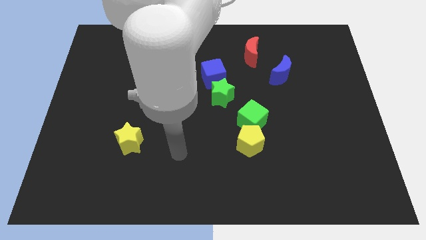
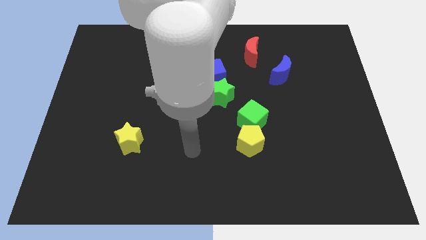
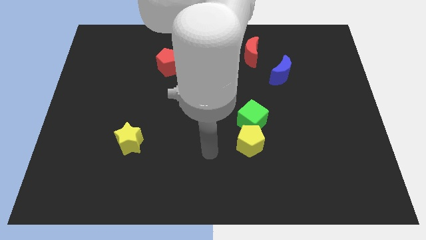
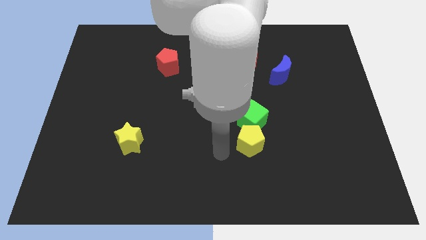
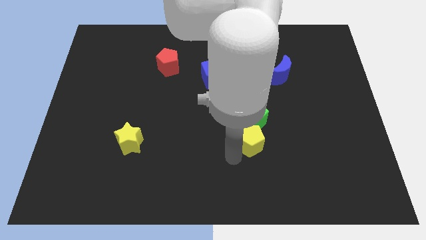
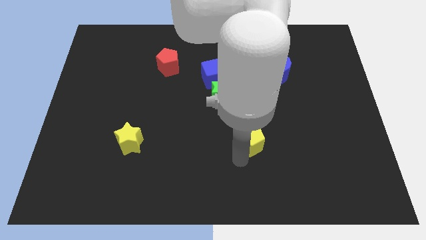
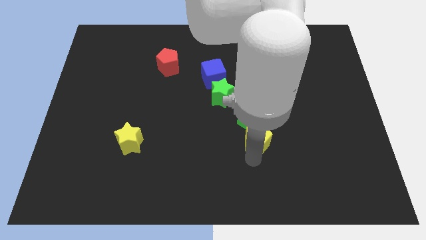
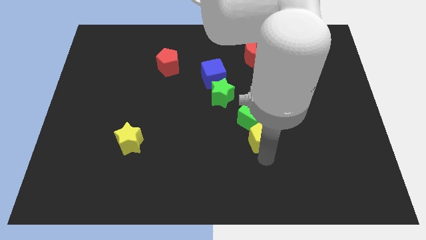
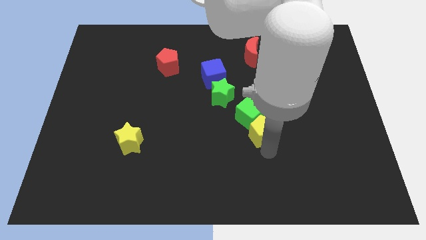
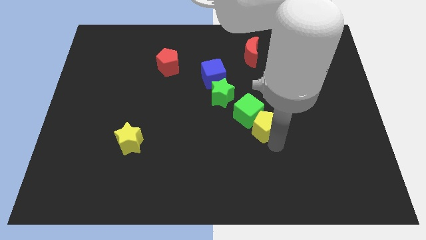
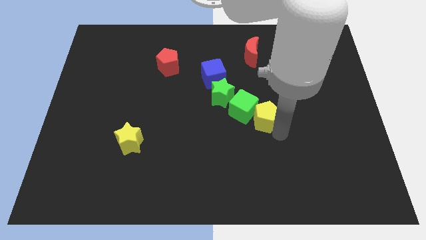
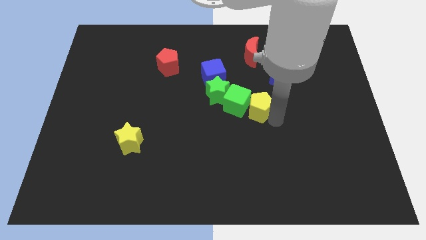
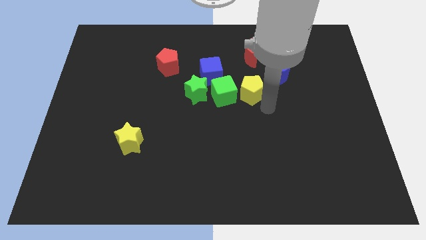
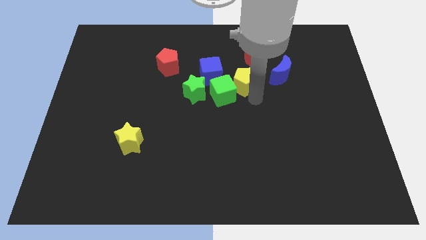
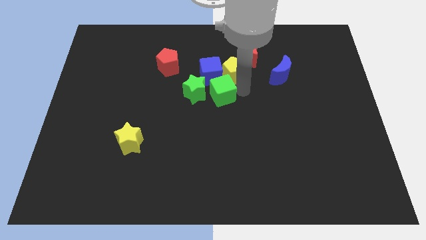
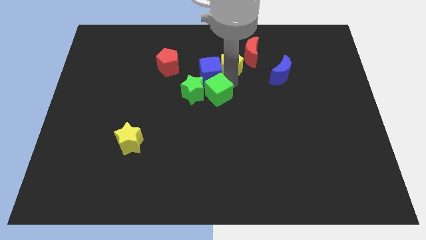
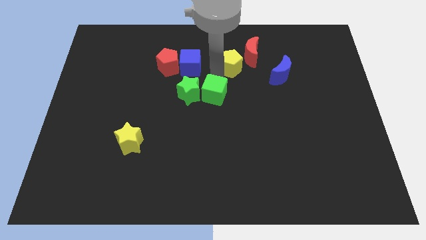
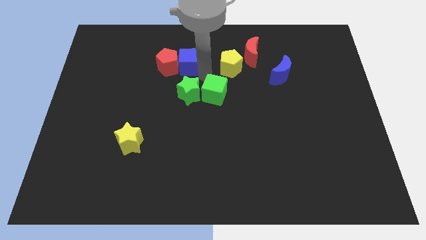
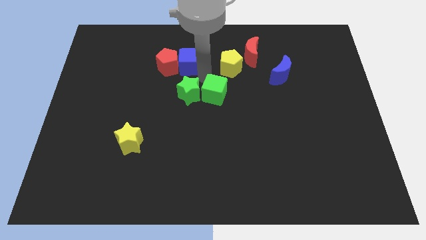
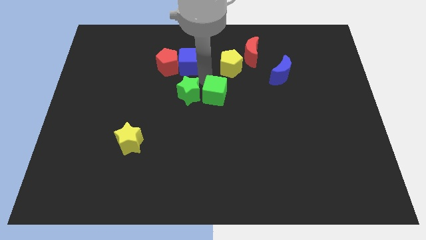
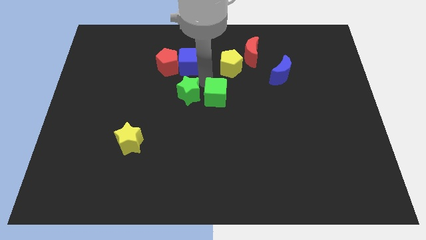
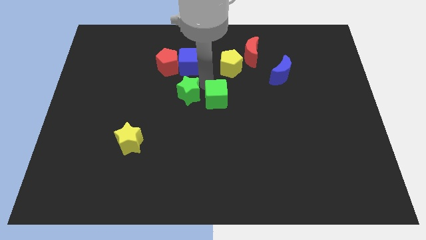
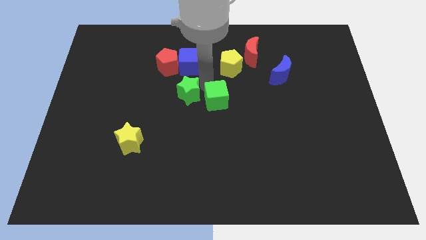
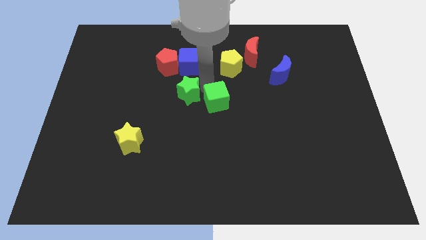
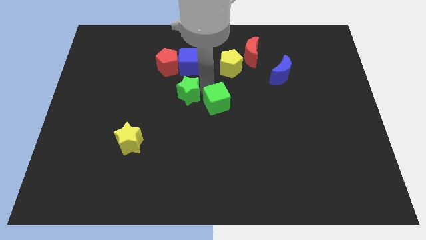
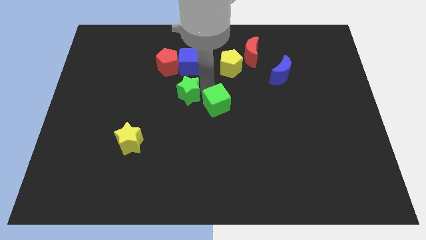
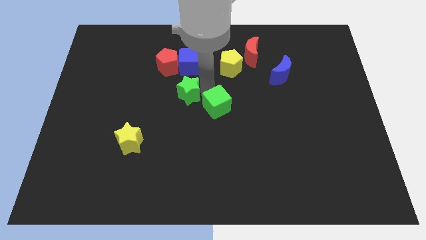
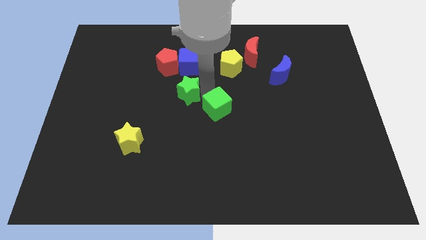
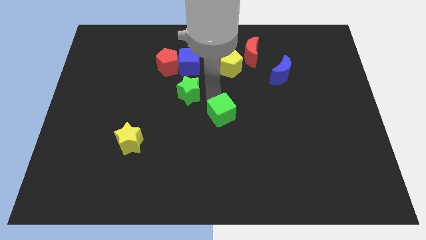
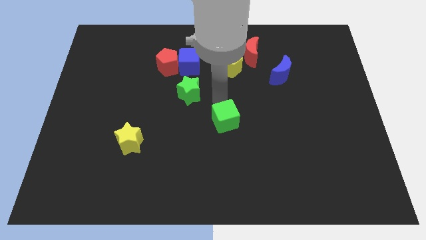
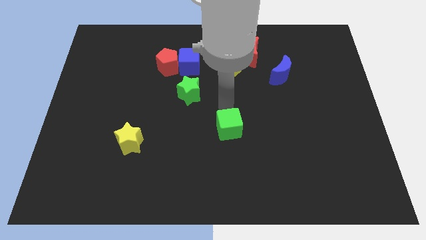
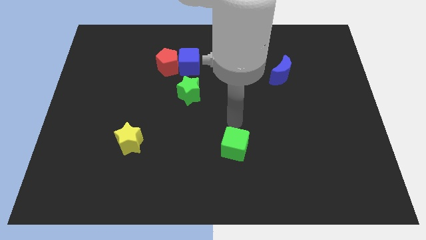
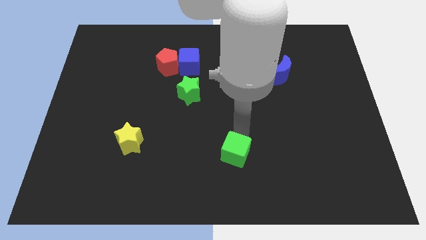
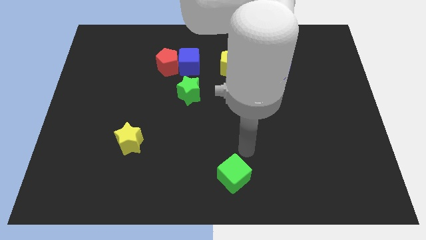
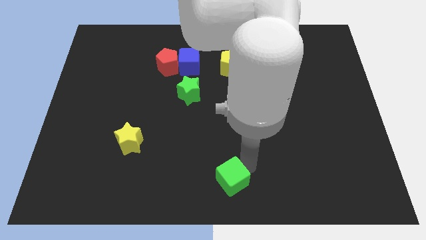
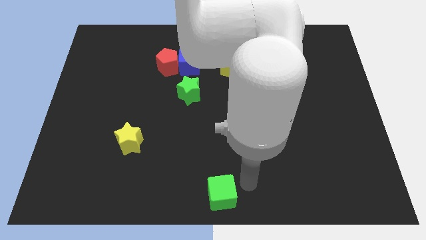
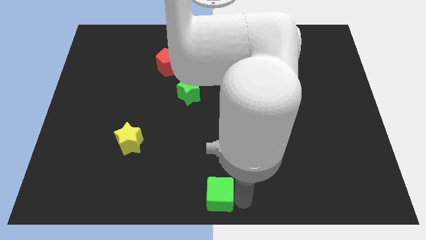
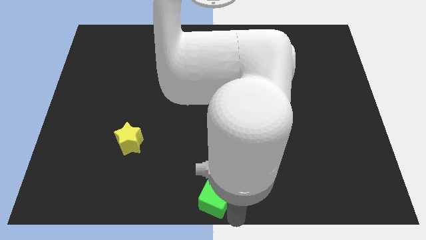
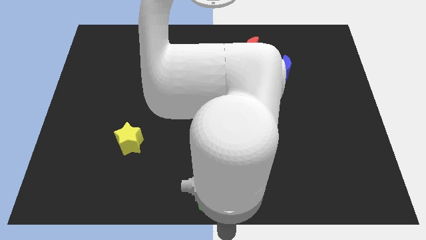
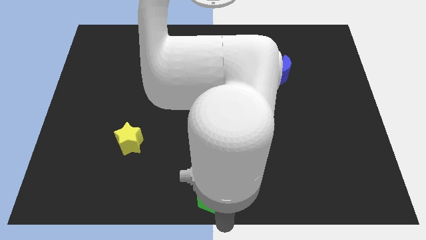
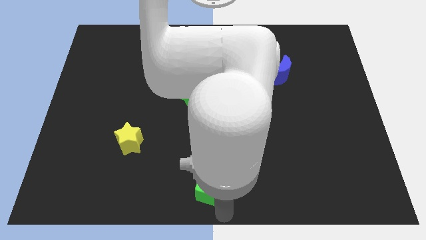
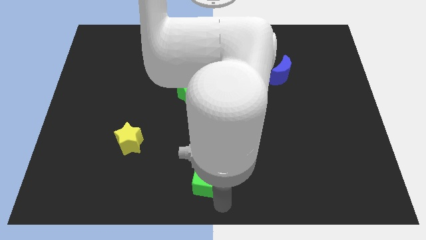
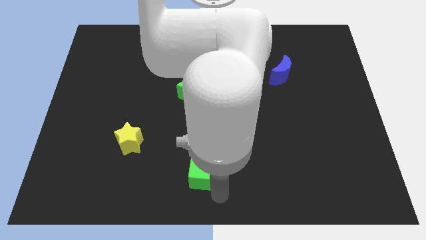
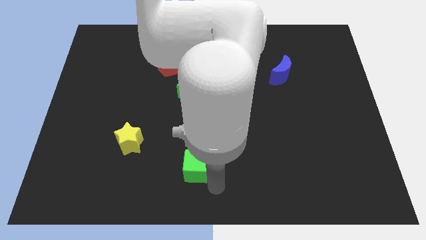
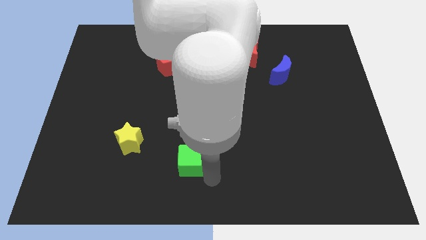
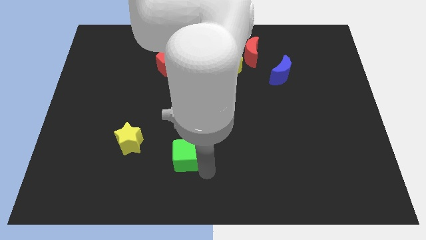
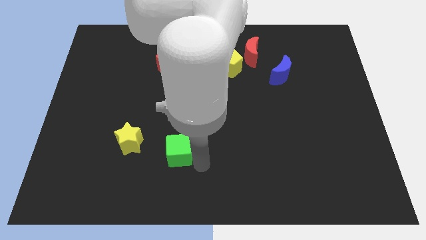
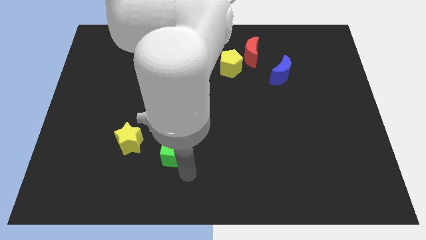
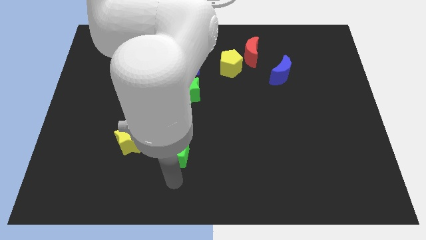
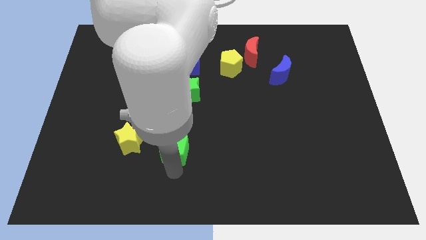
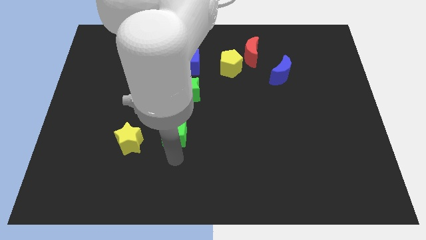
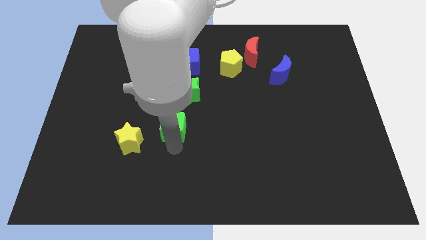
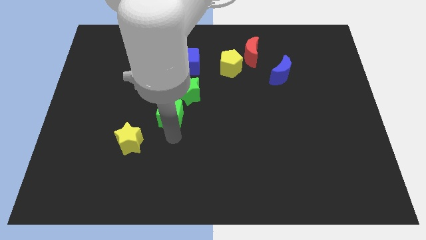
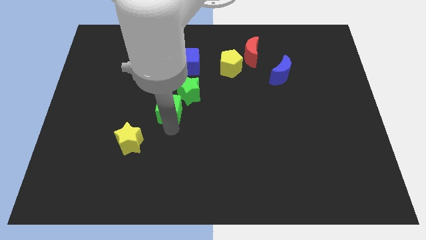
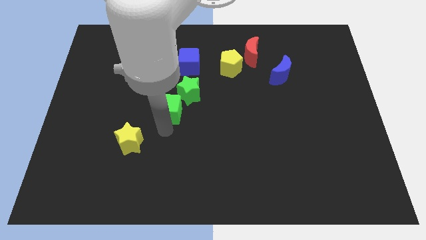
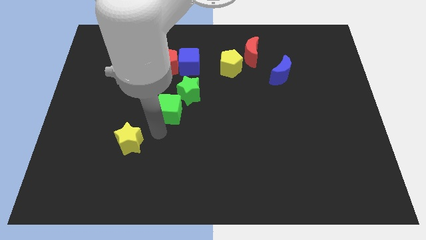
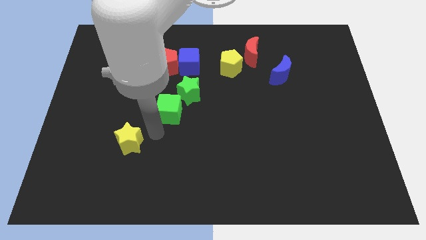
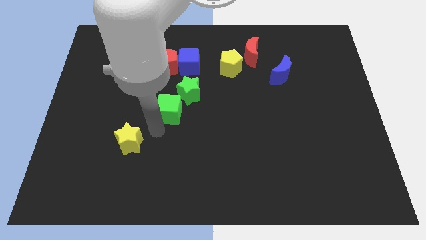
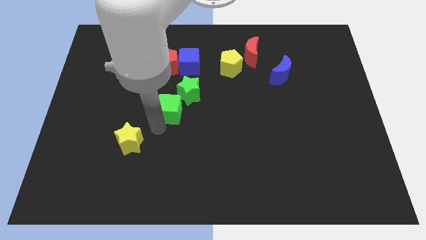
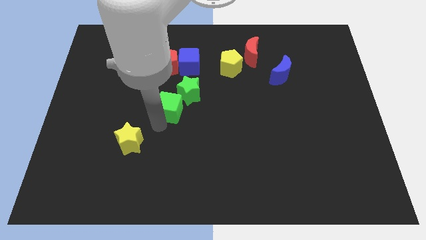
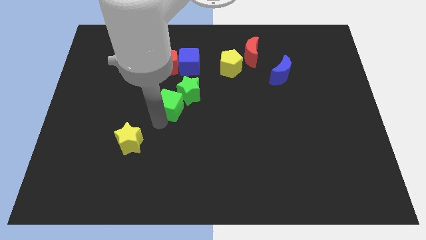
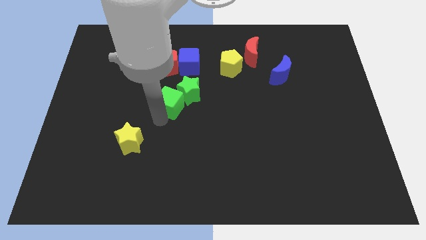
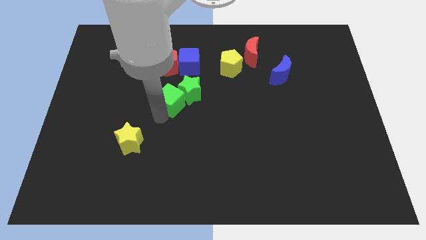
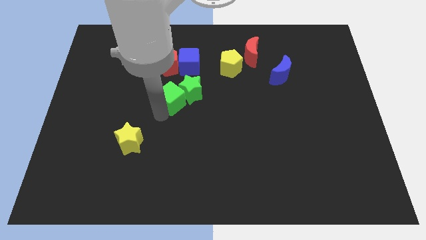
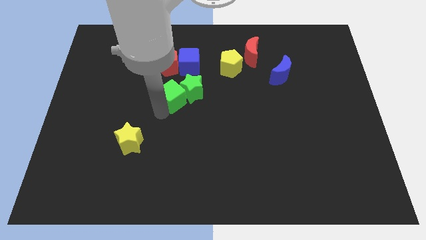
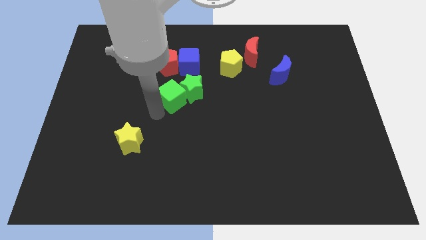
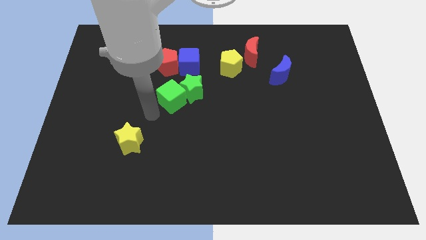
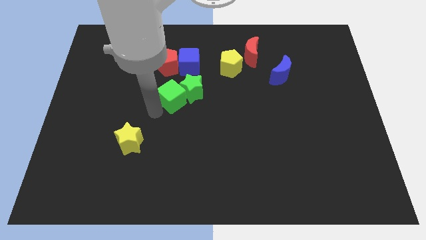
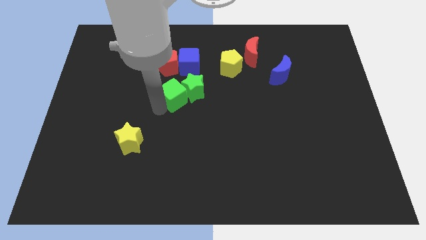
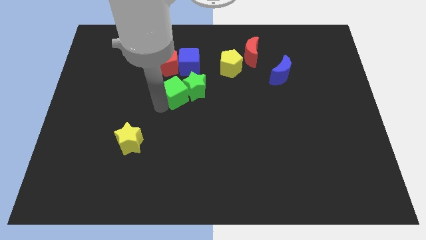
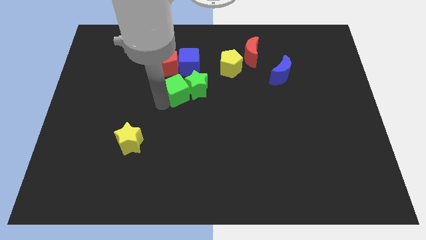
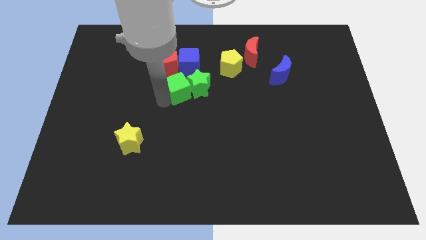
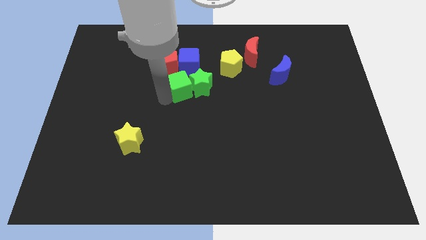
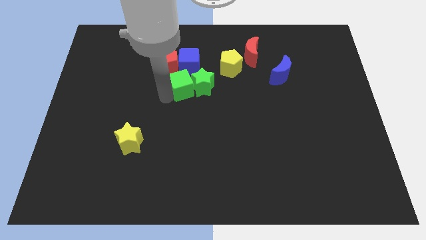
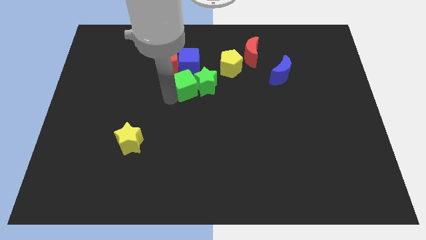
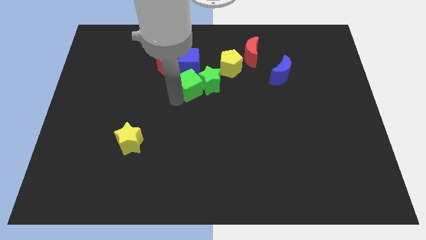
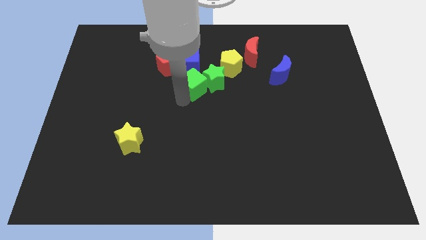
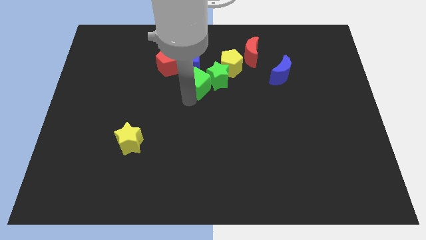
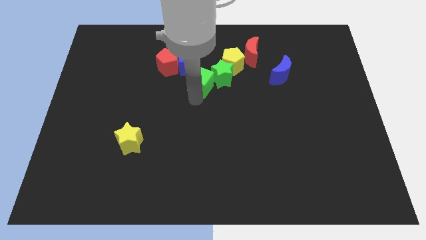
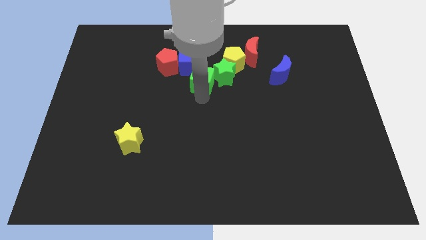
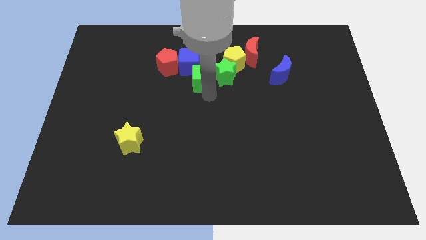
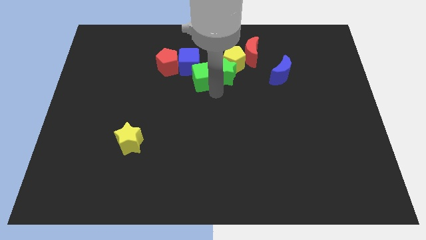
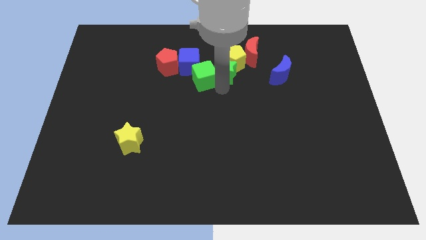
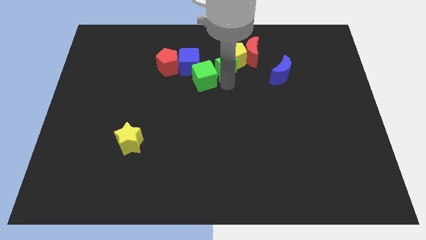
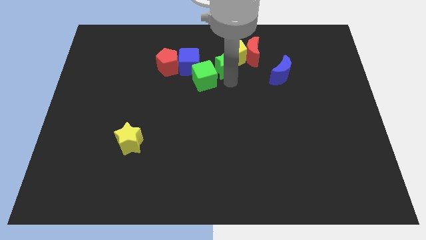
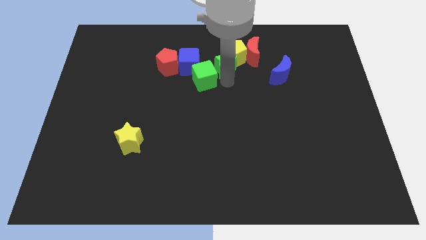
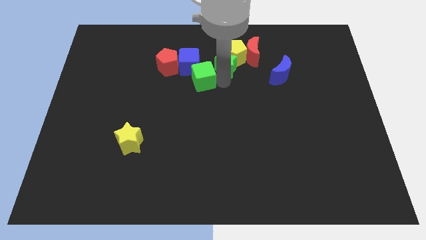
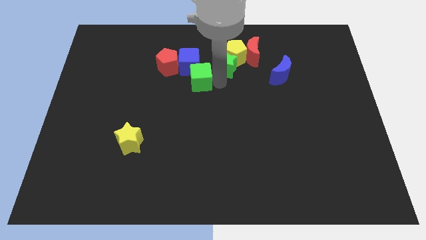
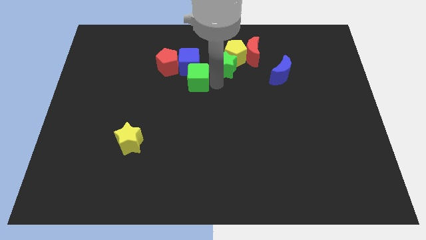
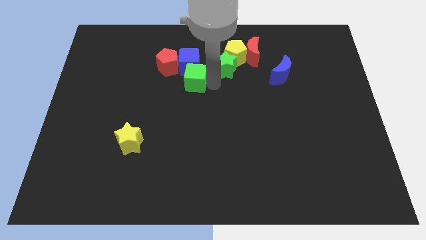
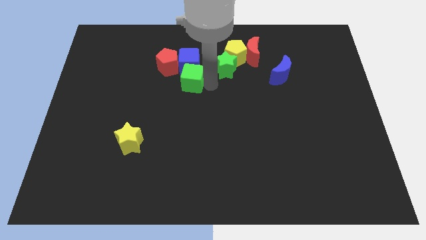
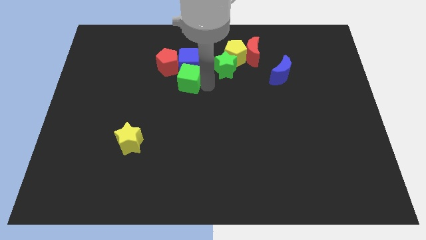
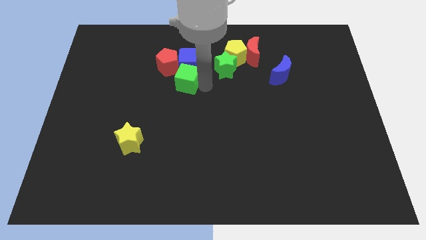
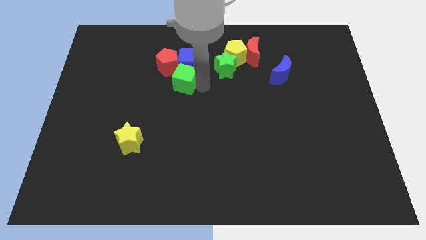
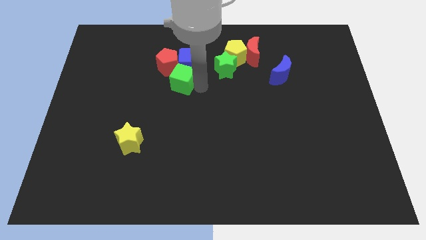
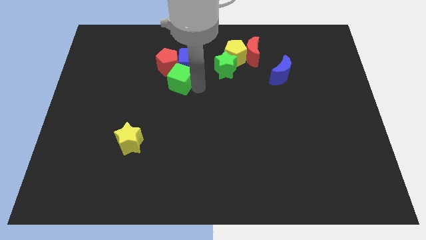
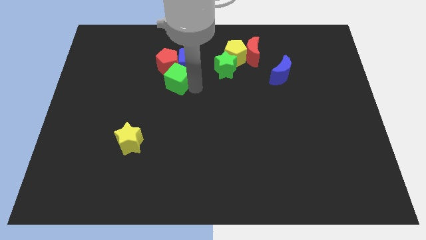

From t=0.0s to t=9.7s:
move the green cube next to the red pentagon
